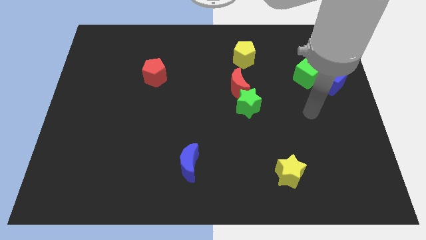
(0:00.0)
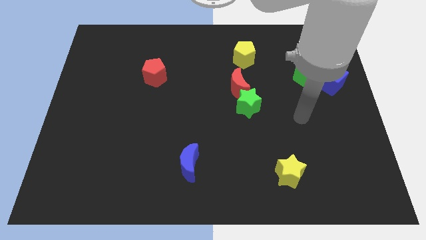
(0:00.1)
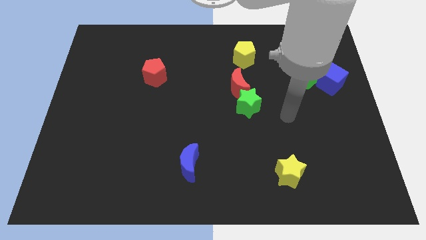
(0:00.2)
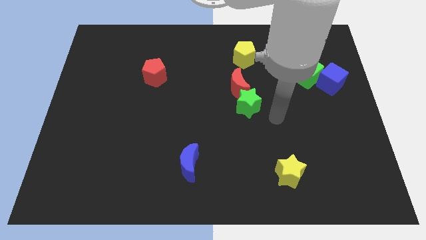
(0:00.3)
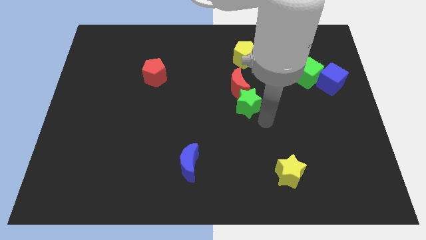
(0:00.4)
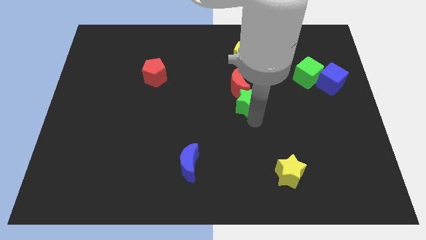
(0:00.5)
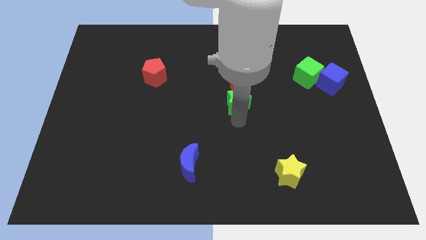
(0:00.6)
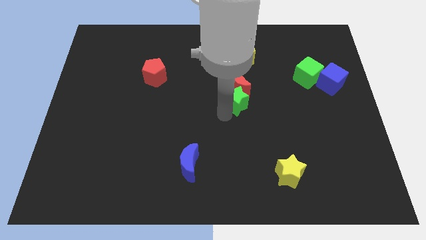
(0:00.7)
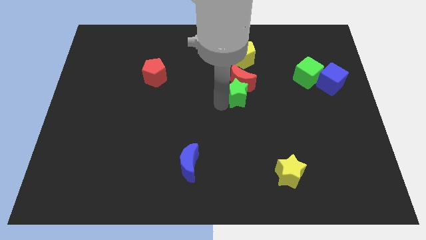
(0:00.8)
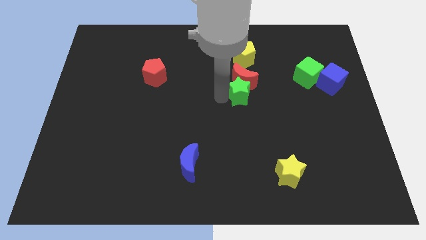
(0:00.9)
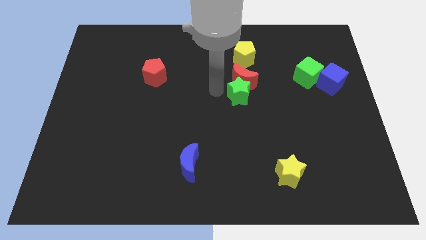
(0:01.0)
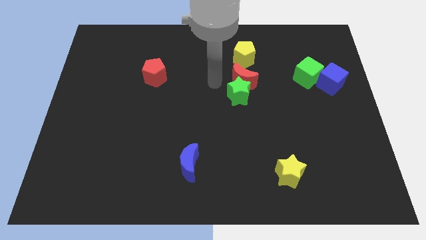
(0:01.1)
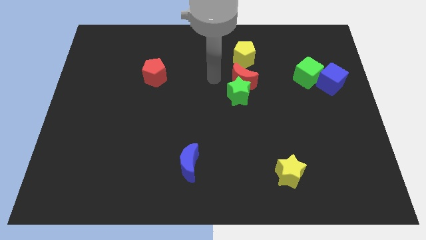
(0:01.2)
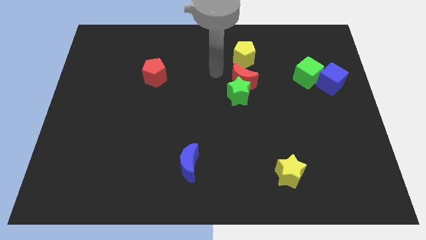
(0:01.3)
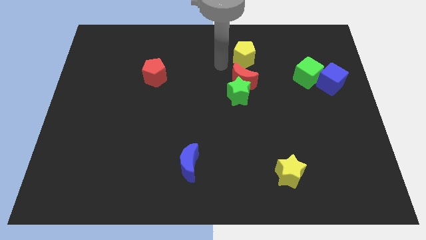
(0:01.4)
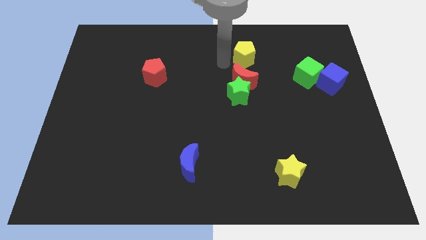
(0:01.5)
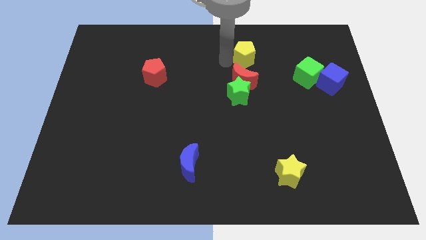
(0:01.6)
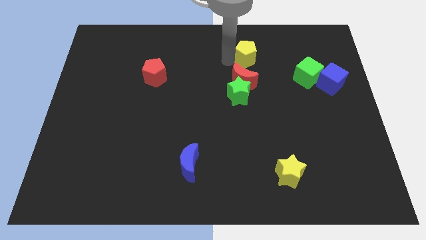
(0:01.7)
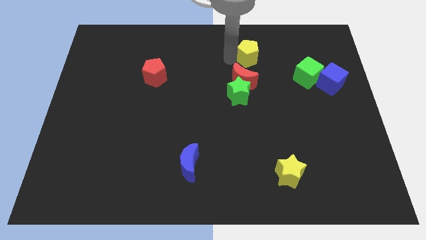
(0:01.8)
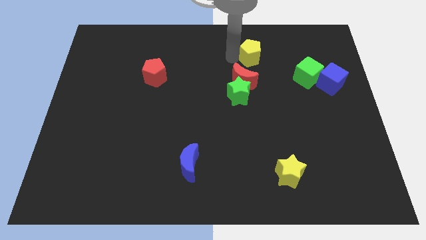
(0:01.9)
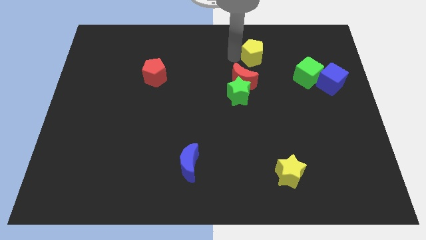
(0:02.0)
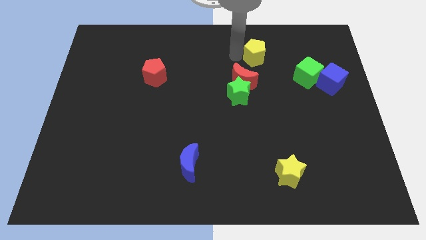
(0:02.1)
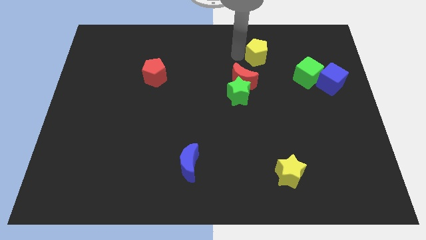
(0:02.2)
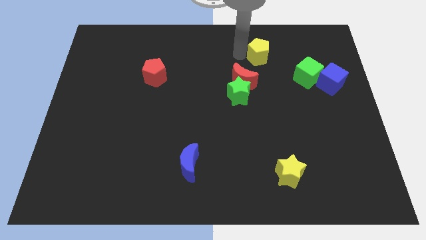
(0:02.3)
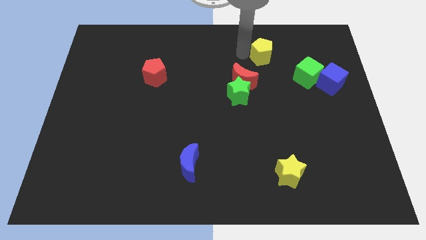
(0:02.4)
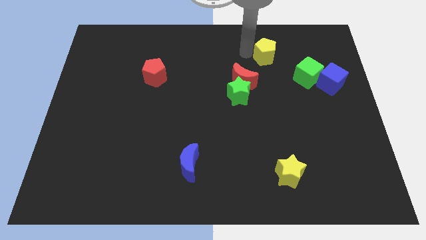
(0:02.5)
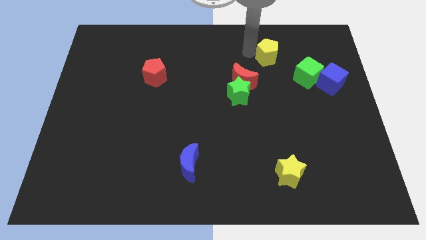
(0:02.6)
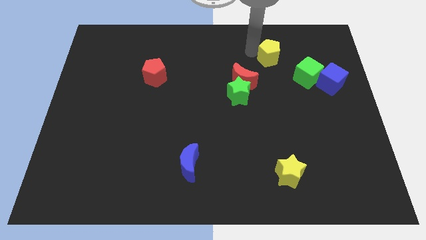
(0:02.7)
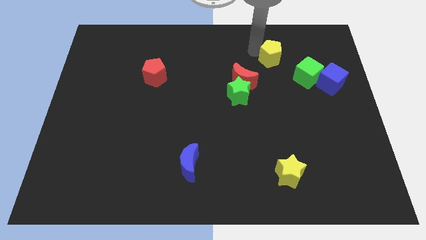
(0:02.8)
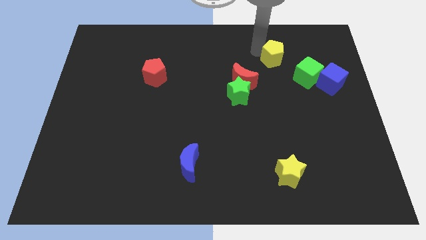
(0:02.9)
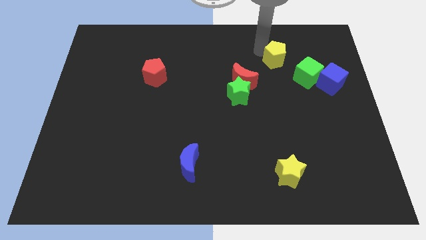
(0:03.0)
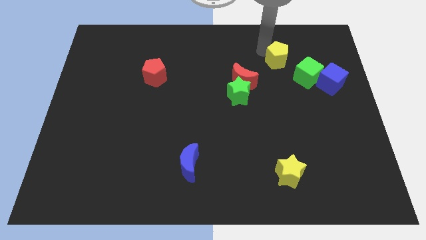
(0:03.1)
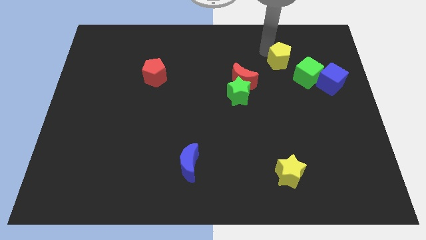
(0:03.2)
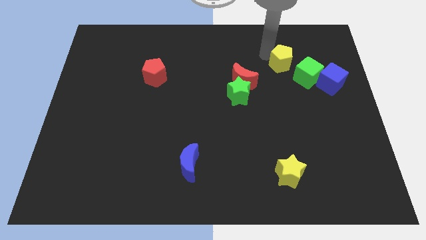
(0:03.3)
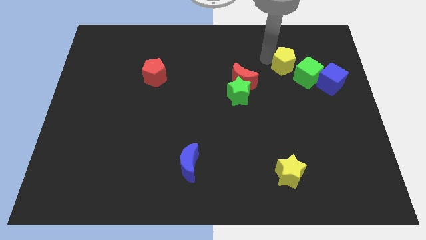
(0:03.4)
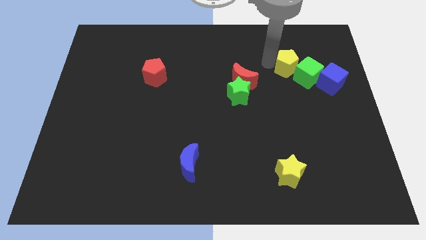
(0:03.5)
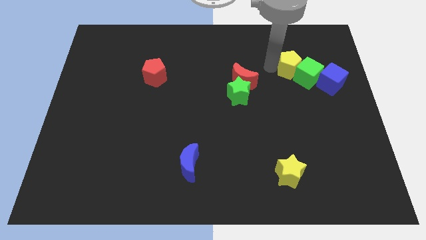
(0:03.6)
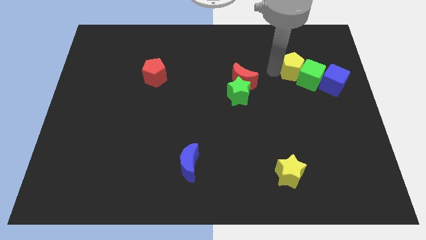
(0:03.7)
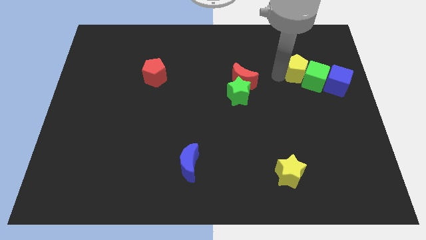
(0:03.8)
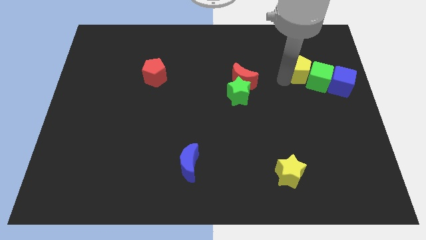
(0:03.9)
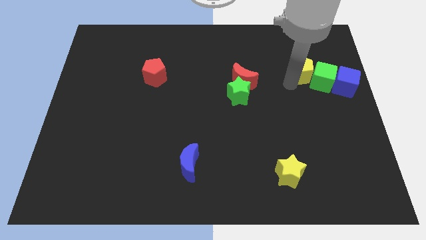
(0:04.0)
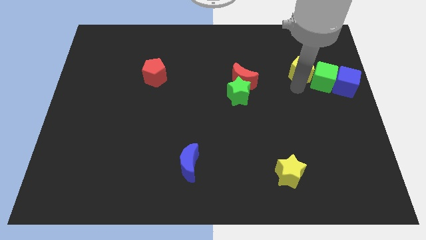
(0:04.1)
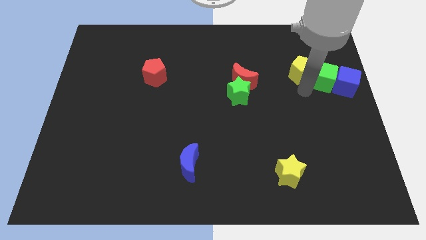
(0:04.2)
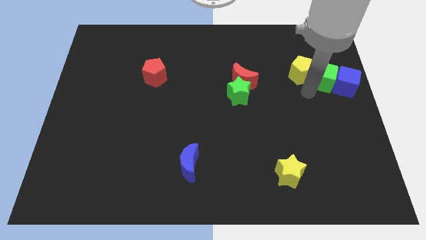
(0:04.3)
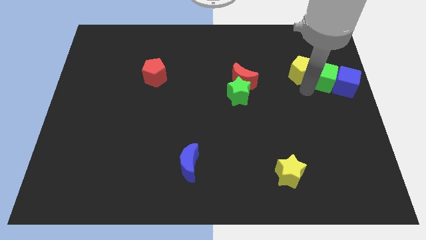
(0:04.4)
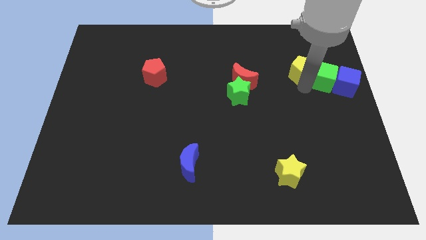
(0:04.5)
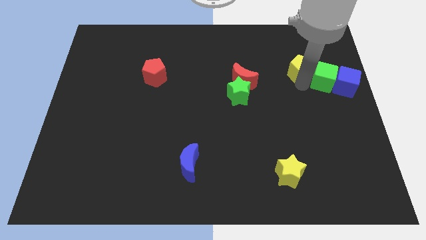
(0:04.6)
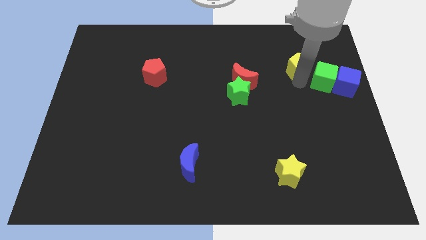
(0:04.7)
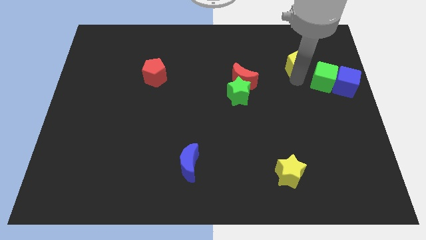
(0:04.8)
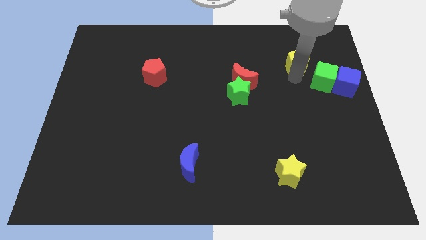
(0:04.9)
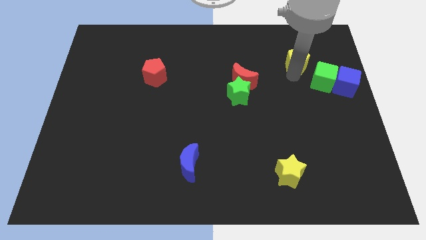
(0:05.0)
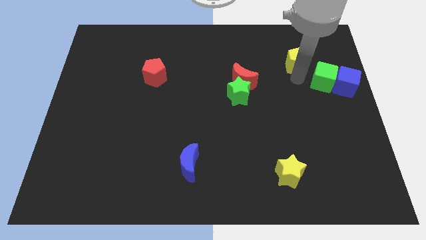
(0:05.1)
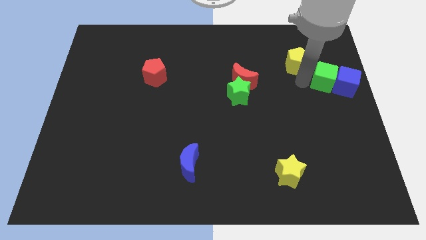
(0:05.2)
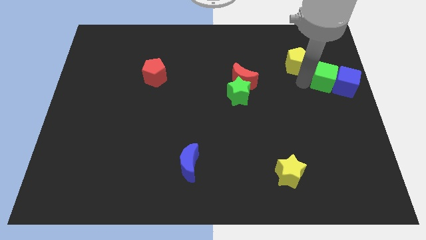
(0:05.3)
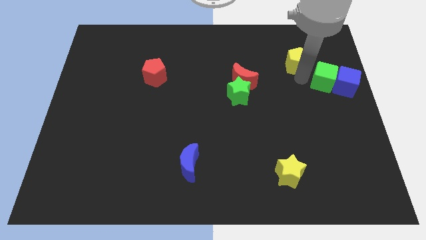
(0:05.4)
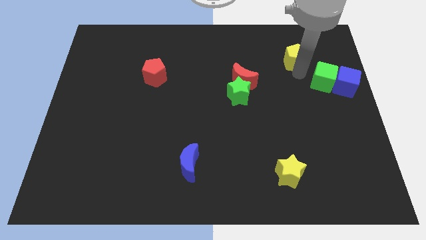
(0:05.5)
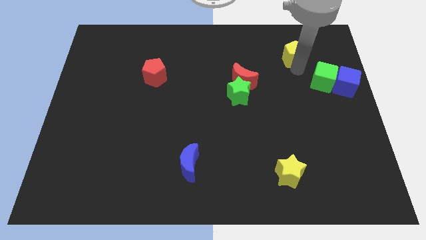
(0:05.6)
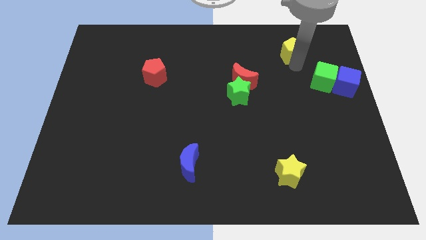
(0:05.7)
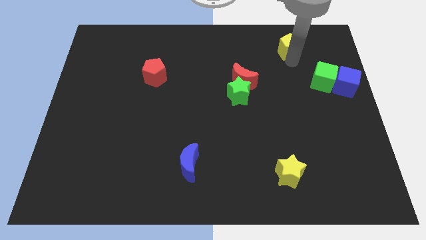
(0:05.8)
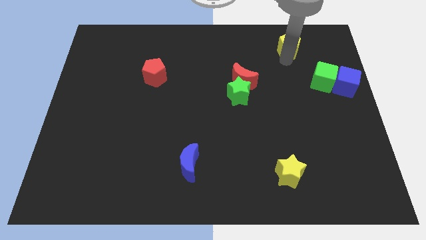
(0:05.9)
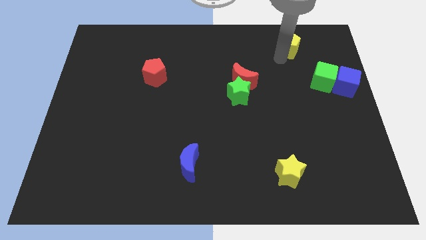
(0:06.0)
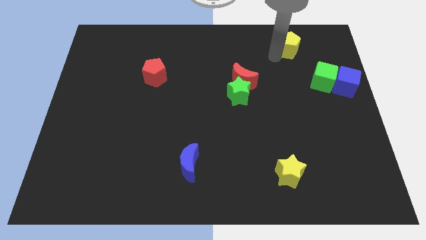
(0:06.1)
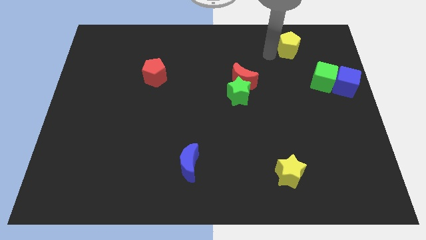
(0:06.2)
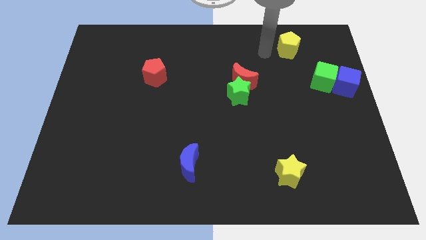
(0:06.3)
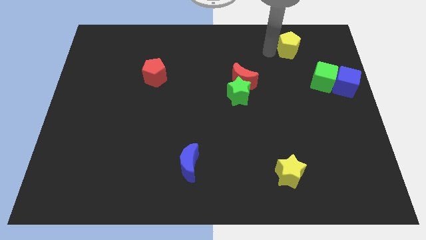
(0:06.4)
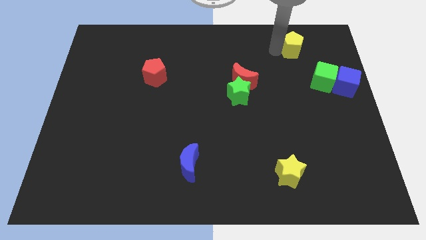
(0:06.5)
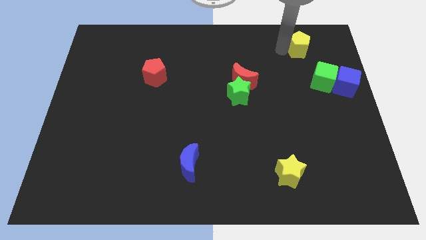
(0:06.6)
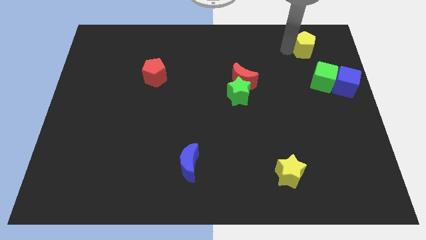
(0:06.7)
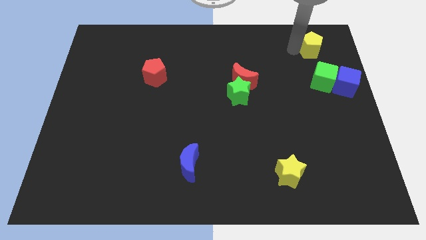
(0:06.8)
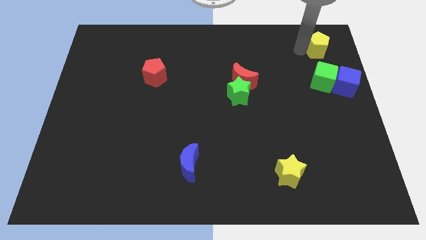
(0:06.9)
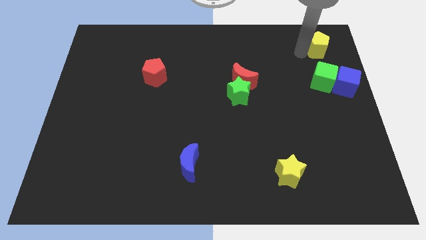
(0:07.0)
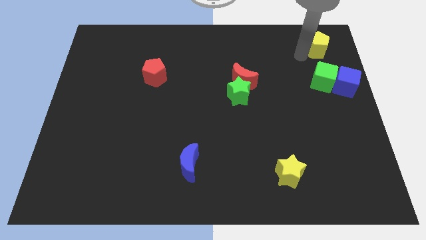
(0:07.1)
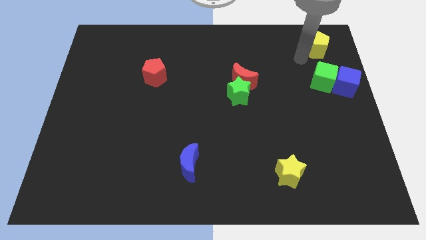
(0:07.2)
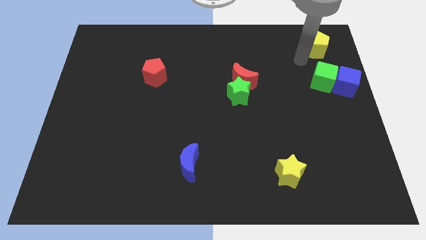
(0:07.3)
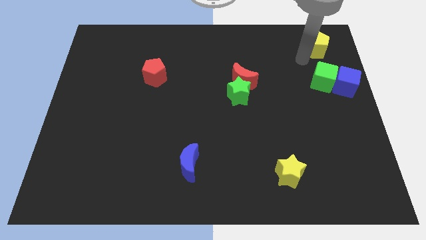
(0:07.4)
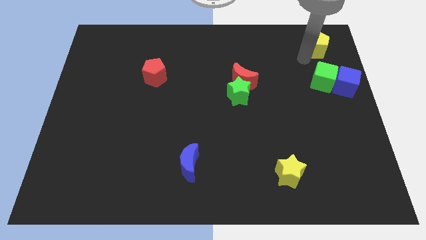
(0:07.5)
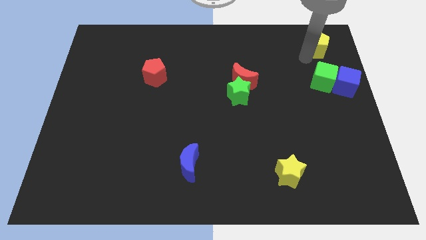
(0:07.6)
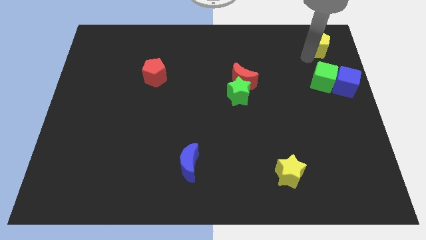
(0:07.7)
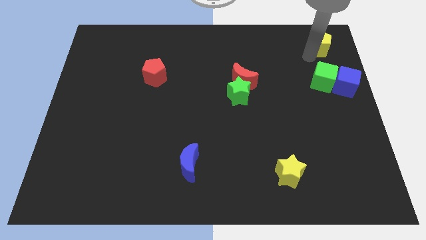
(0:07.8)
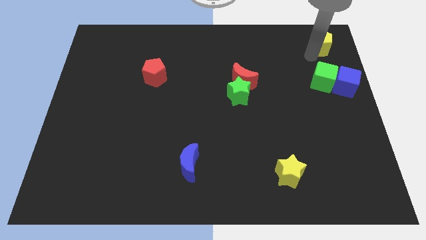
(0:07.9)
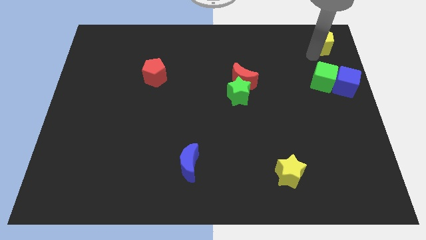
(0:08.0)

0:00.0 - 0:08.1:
put the yellow pentagon to the upper right corner
